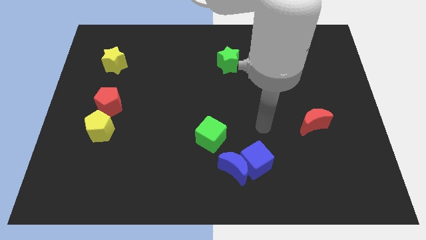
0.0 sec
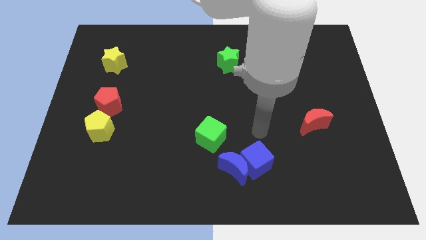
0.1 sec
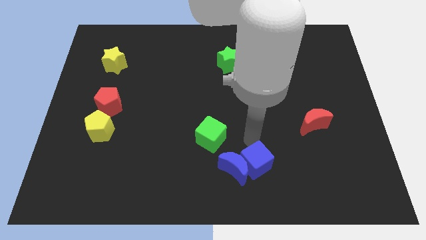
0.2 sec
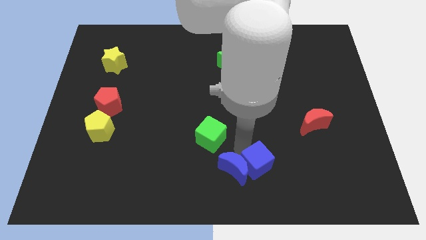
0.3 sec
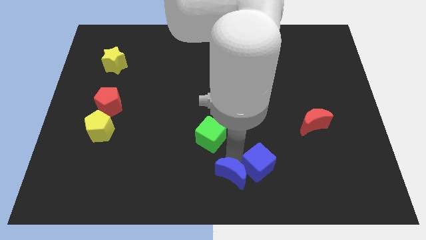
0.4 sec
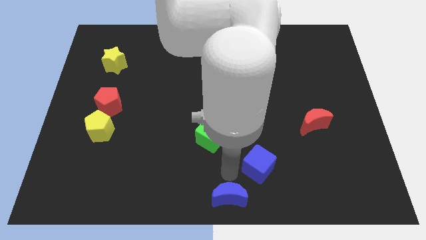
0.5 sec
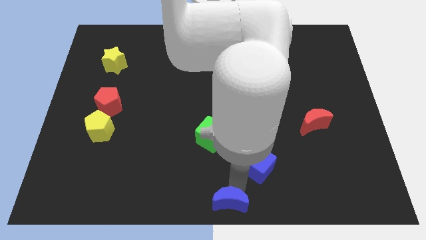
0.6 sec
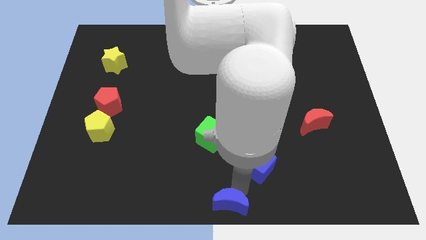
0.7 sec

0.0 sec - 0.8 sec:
separate the blue cube from the blue moon

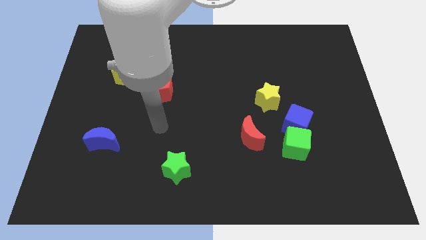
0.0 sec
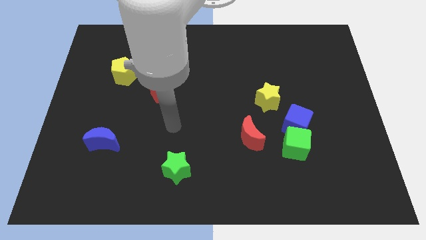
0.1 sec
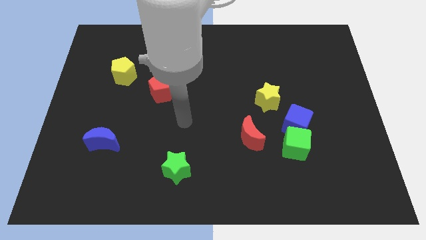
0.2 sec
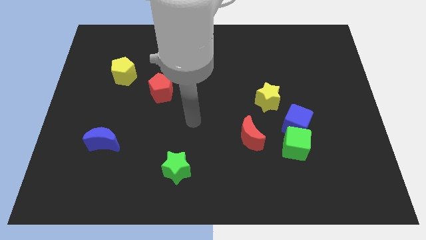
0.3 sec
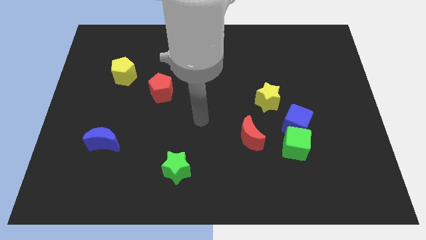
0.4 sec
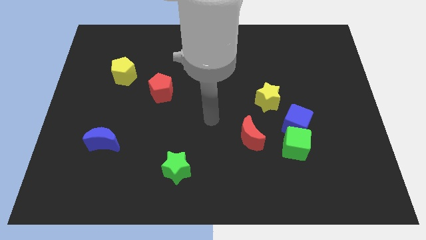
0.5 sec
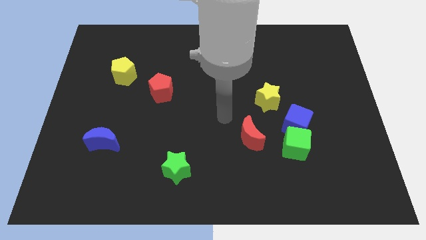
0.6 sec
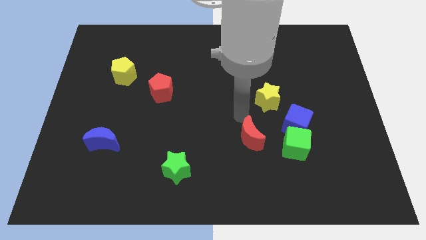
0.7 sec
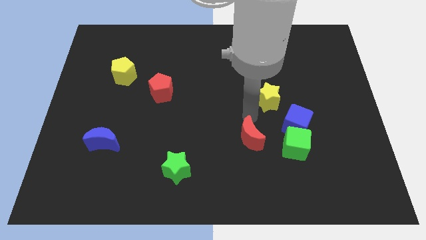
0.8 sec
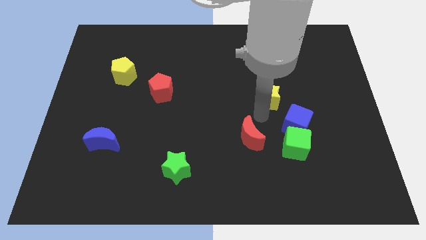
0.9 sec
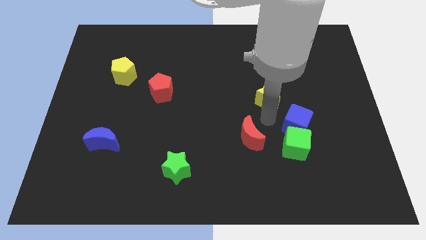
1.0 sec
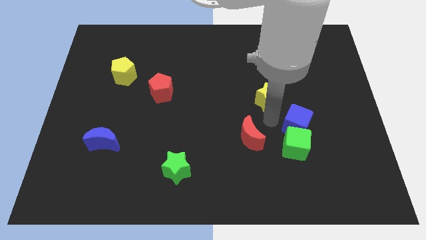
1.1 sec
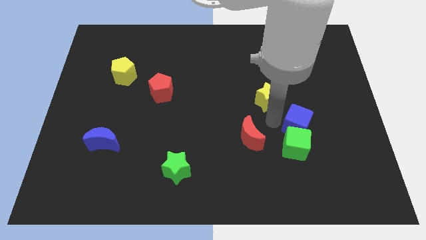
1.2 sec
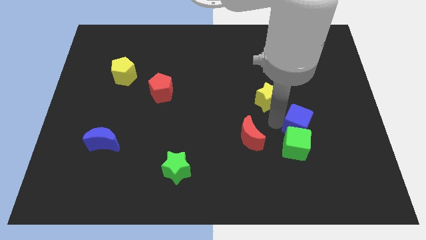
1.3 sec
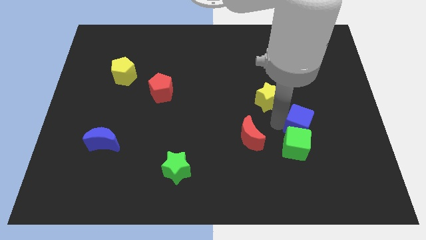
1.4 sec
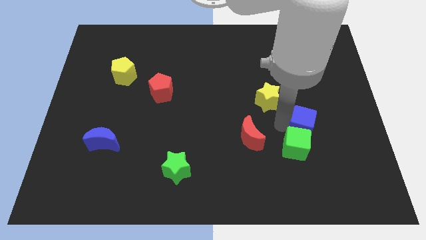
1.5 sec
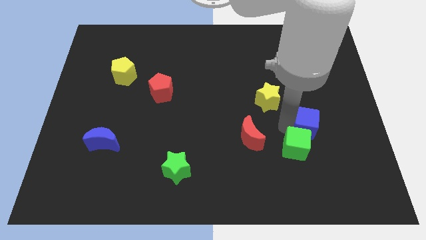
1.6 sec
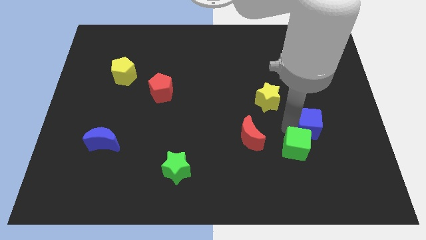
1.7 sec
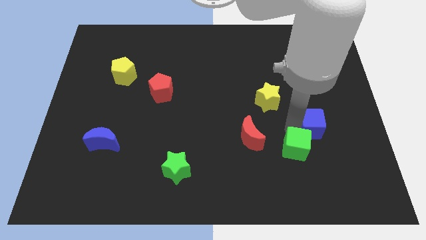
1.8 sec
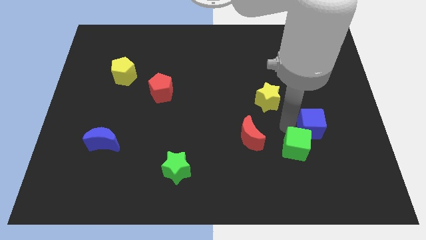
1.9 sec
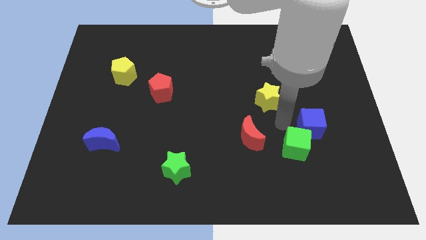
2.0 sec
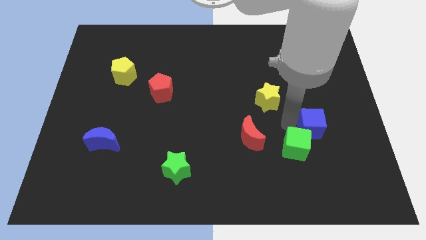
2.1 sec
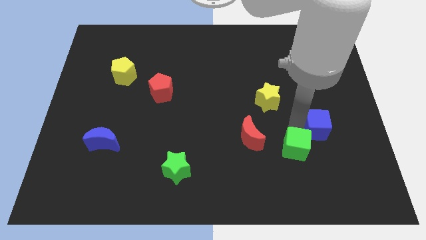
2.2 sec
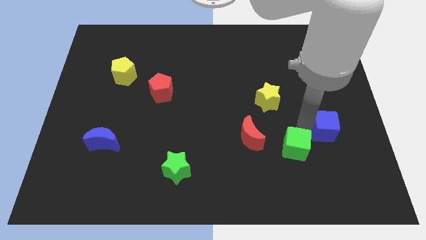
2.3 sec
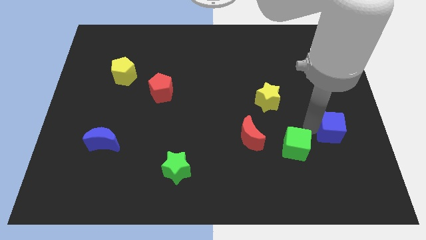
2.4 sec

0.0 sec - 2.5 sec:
pull the blue cube apart from the green cube and yellow star

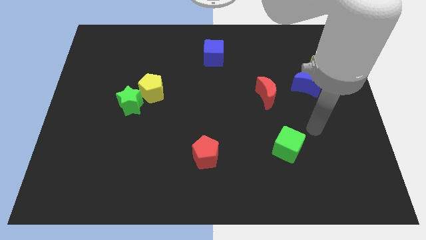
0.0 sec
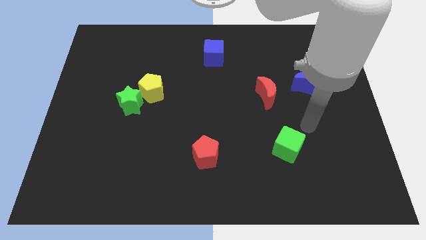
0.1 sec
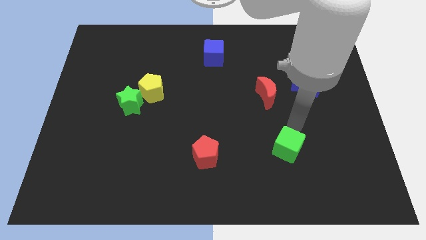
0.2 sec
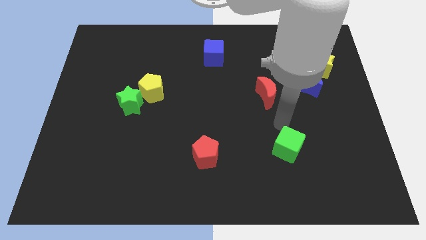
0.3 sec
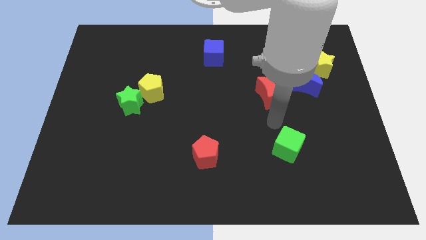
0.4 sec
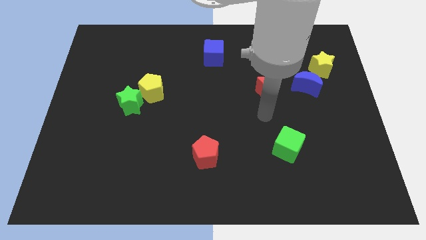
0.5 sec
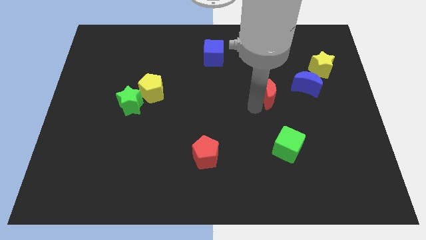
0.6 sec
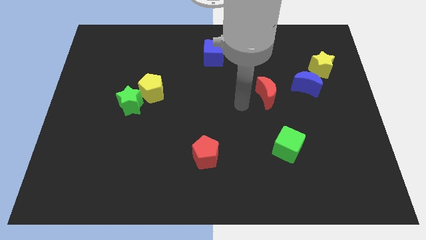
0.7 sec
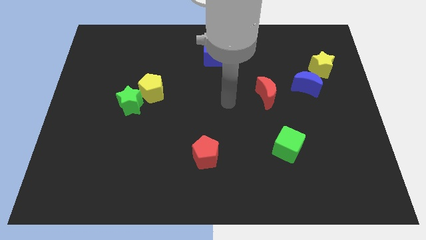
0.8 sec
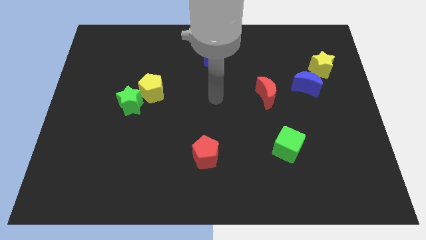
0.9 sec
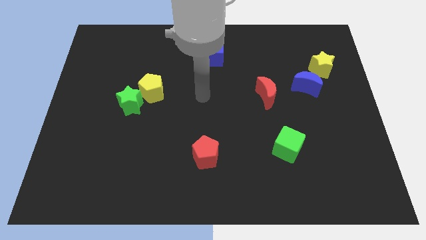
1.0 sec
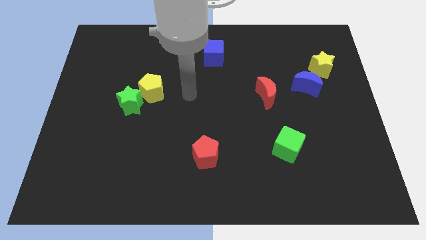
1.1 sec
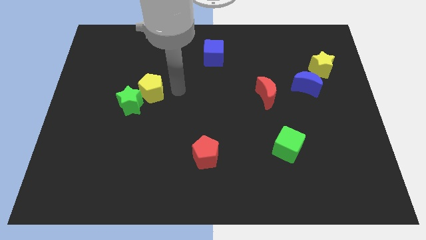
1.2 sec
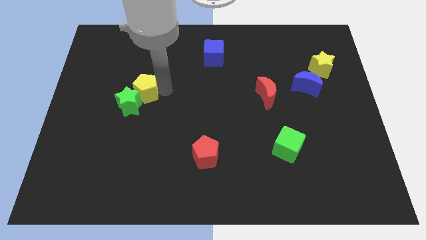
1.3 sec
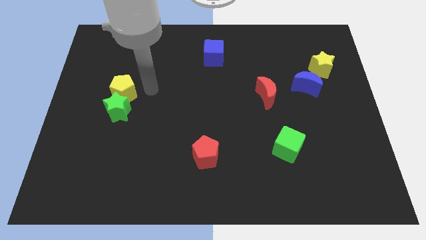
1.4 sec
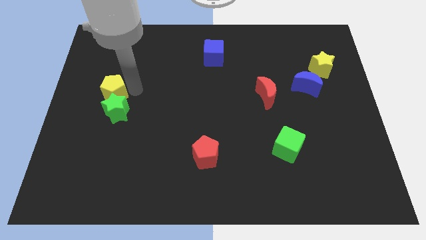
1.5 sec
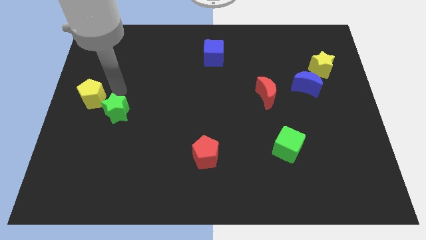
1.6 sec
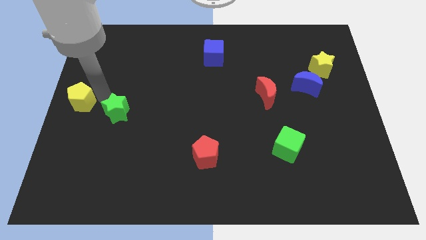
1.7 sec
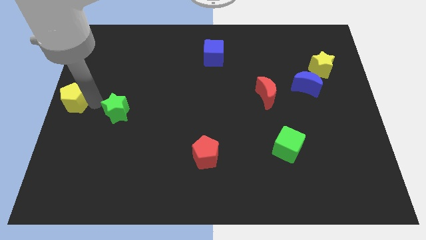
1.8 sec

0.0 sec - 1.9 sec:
pull the green star apart from the yellow pentagon

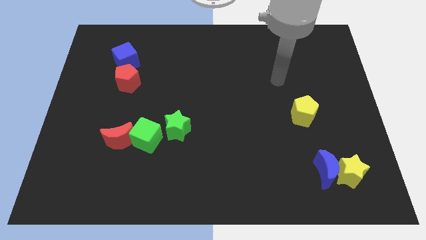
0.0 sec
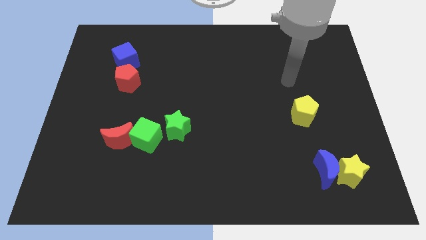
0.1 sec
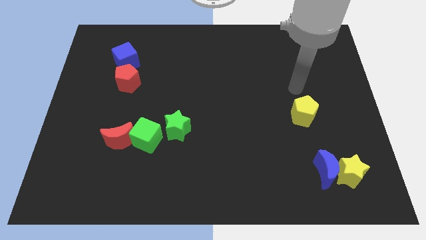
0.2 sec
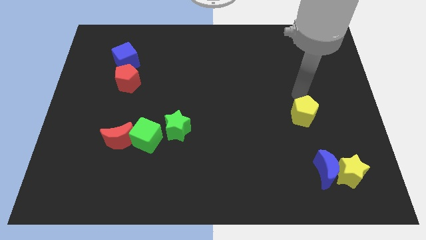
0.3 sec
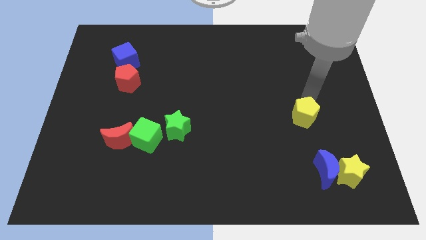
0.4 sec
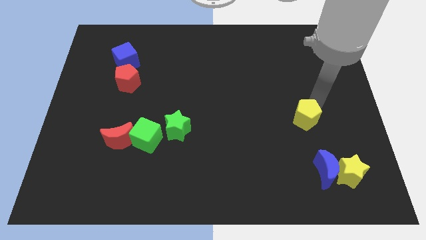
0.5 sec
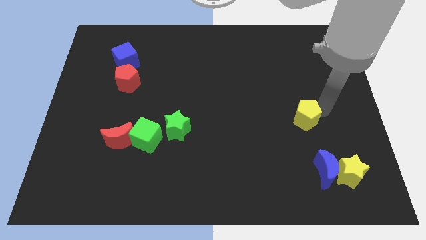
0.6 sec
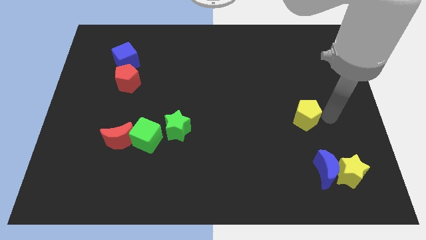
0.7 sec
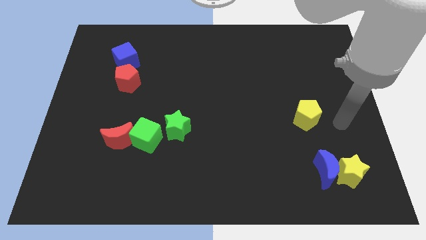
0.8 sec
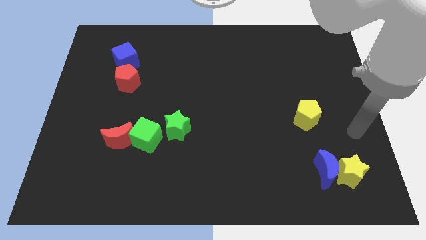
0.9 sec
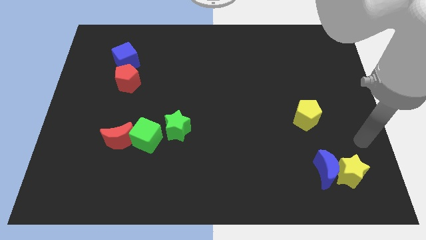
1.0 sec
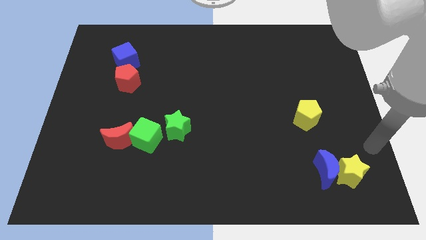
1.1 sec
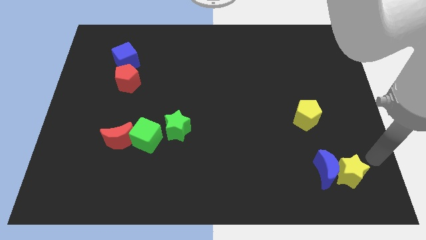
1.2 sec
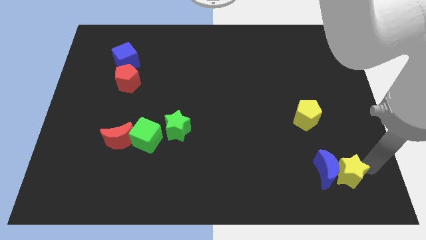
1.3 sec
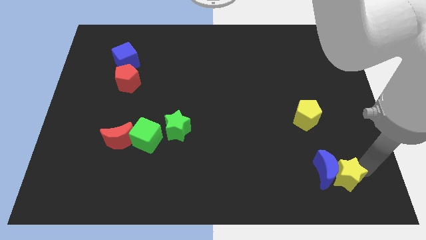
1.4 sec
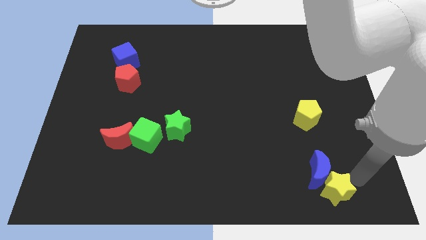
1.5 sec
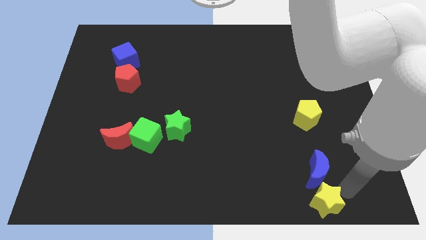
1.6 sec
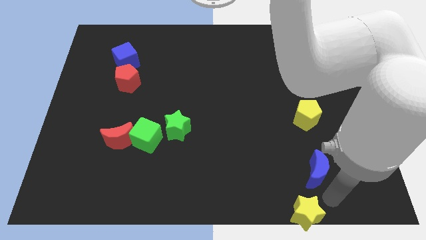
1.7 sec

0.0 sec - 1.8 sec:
separate the blue moon from the yellow star

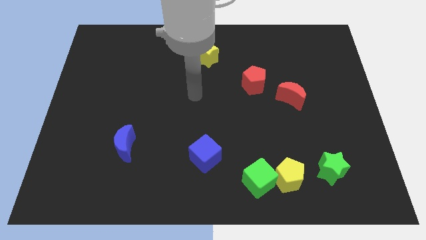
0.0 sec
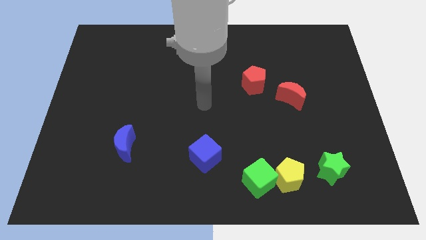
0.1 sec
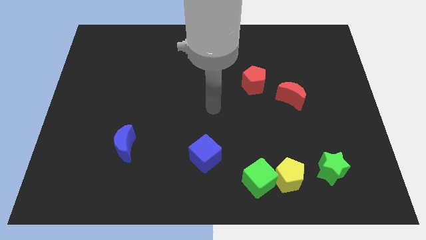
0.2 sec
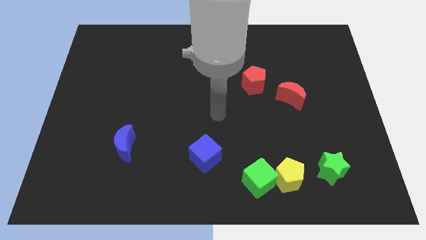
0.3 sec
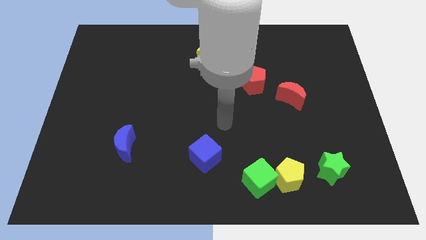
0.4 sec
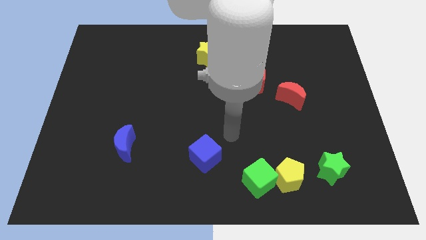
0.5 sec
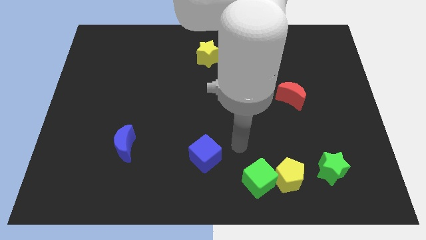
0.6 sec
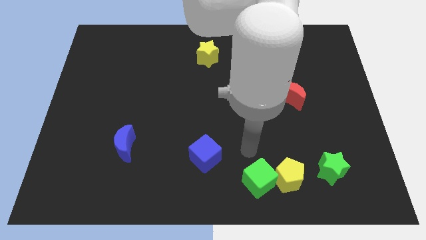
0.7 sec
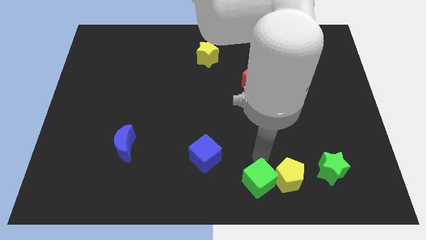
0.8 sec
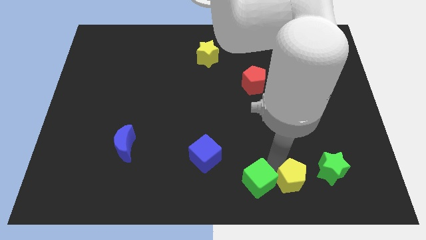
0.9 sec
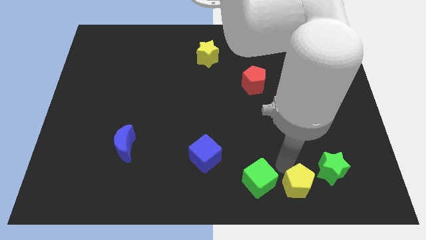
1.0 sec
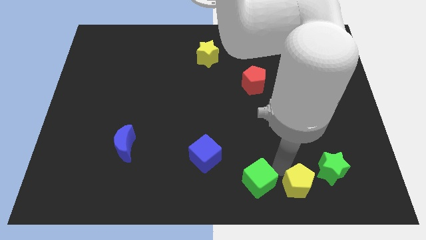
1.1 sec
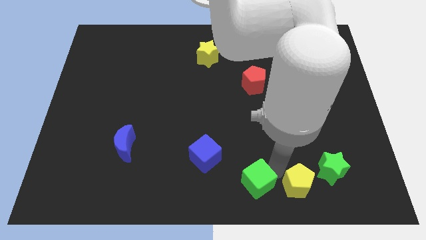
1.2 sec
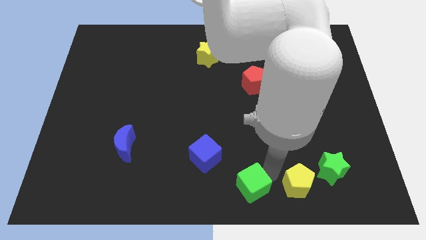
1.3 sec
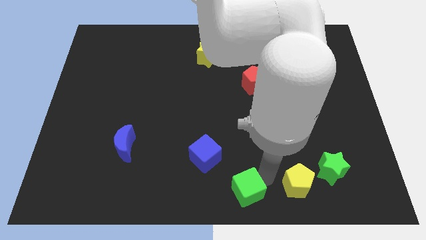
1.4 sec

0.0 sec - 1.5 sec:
move the green cube away from the yellow pentagon

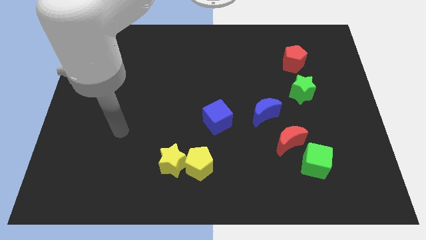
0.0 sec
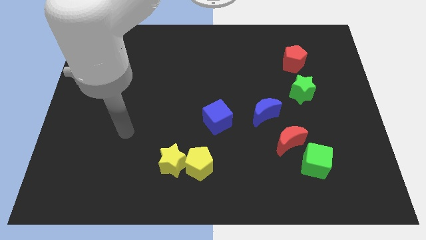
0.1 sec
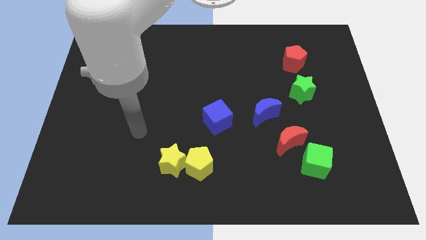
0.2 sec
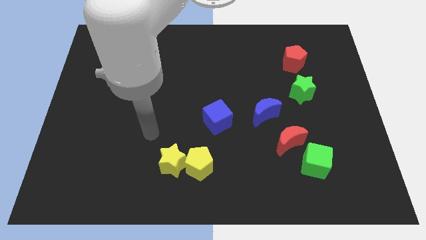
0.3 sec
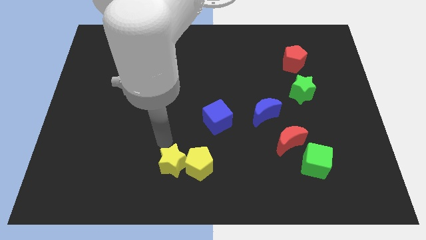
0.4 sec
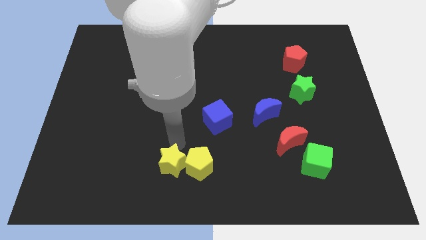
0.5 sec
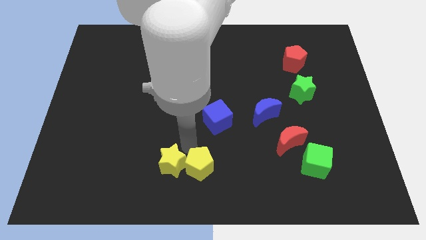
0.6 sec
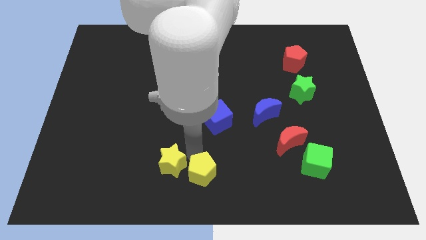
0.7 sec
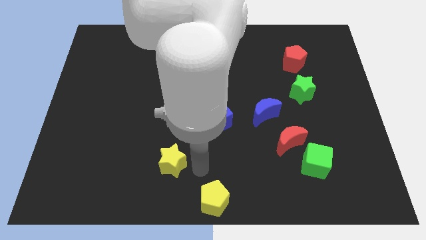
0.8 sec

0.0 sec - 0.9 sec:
separate the yellow star from the yellow pentagon
